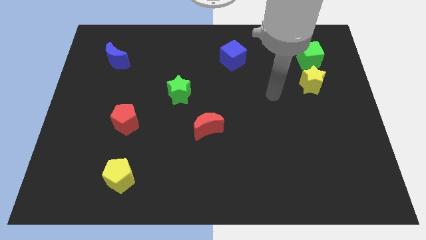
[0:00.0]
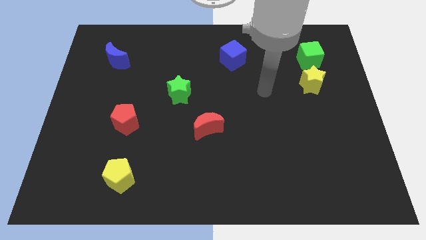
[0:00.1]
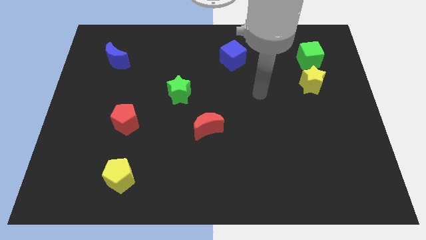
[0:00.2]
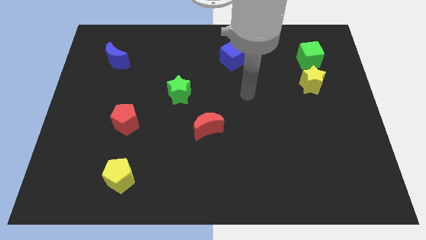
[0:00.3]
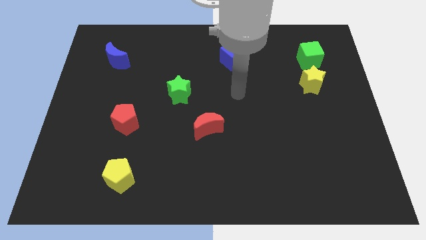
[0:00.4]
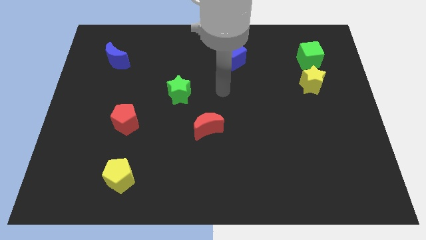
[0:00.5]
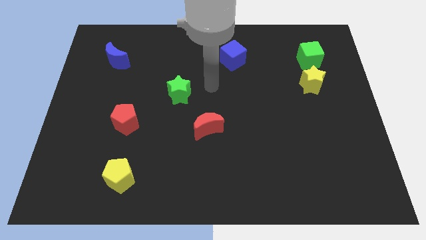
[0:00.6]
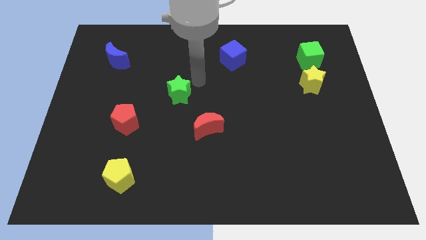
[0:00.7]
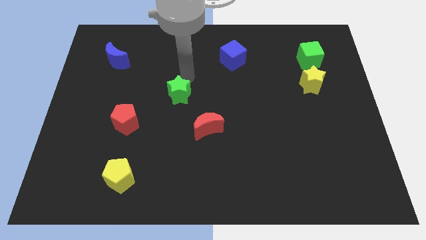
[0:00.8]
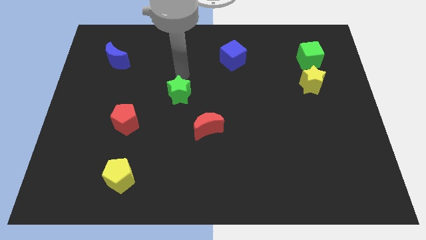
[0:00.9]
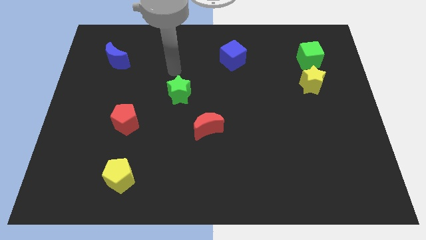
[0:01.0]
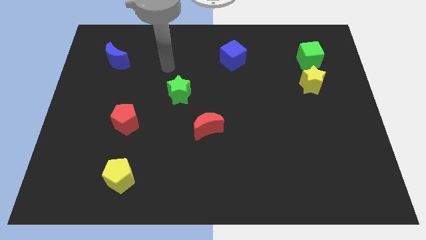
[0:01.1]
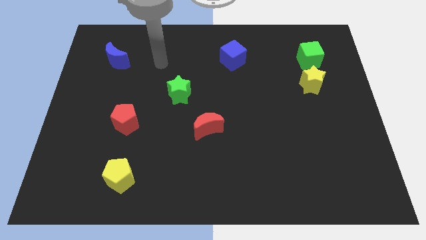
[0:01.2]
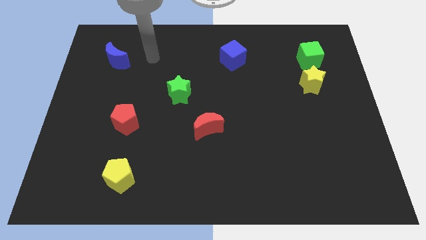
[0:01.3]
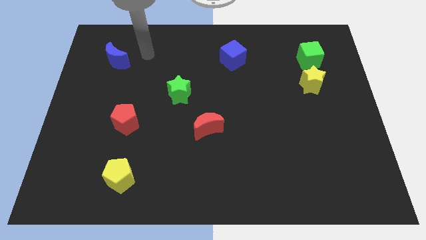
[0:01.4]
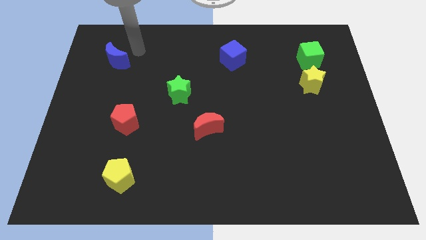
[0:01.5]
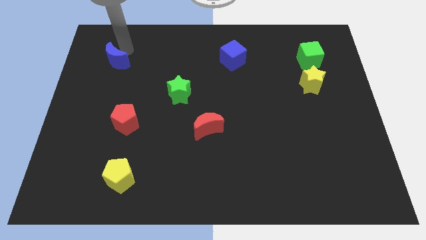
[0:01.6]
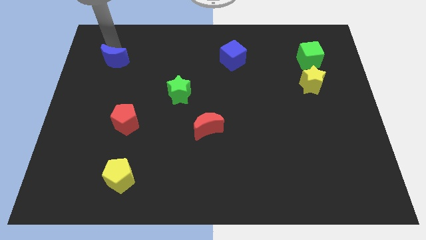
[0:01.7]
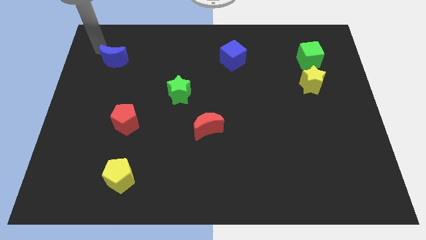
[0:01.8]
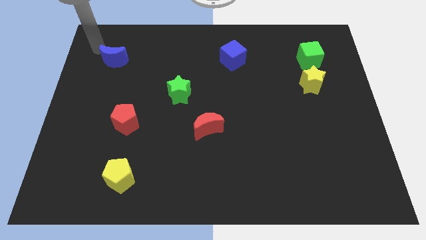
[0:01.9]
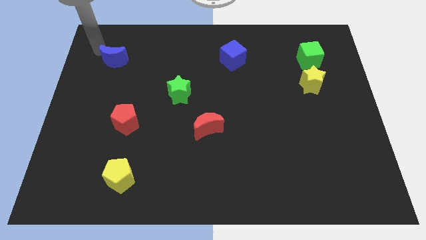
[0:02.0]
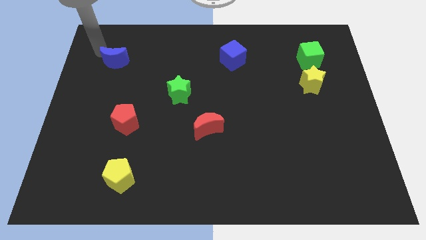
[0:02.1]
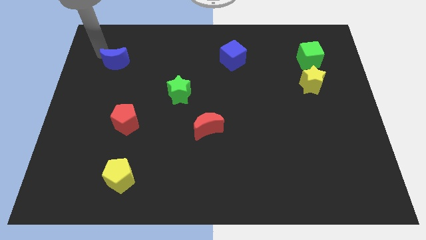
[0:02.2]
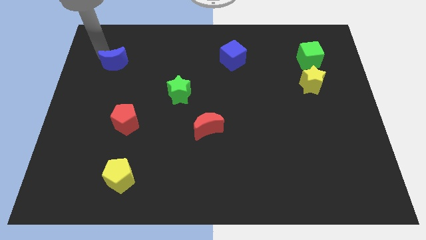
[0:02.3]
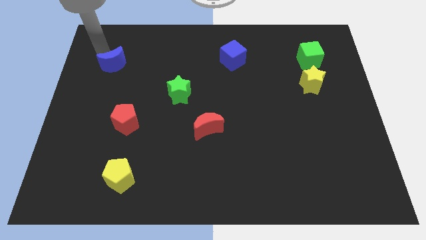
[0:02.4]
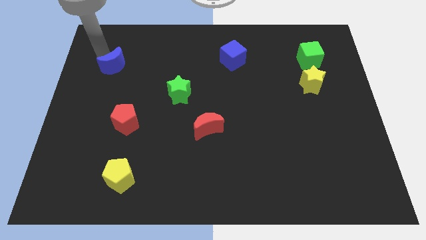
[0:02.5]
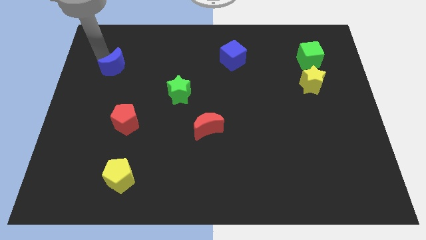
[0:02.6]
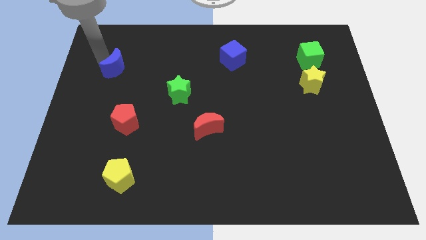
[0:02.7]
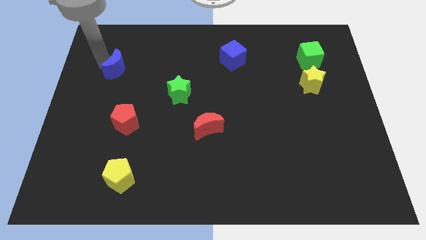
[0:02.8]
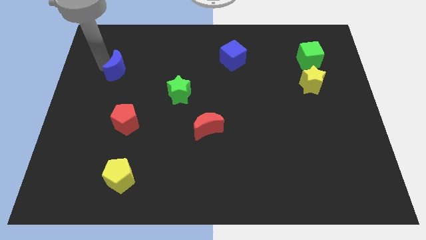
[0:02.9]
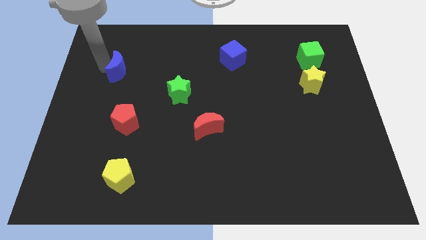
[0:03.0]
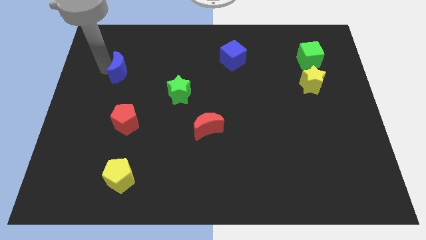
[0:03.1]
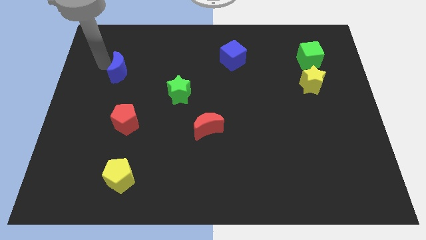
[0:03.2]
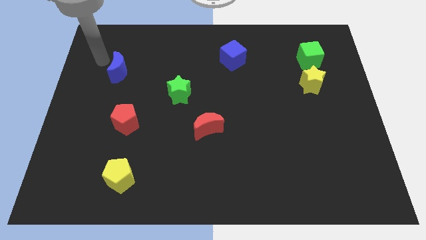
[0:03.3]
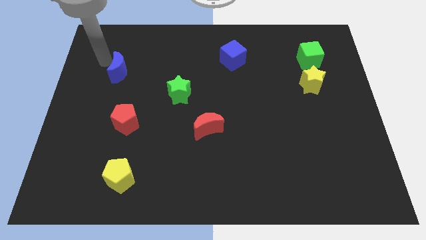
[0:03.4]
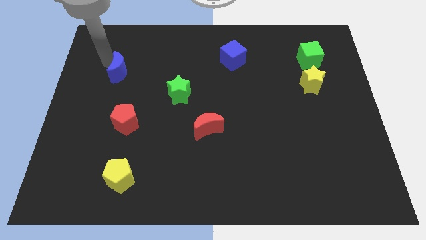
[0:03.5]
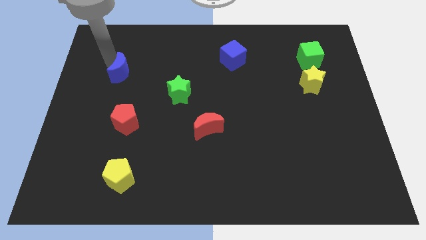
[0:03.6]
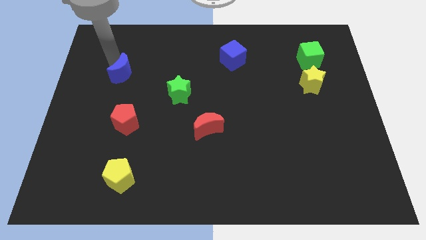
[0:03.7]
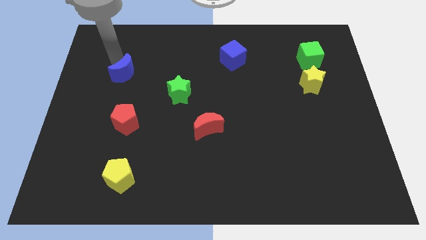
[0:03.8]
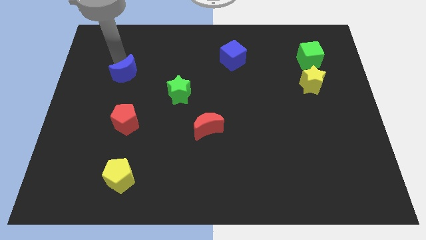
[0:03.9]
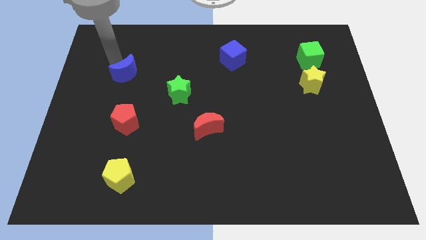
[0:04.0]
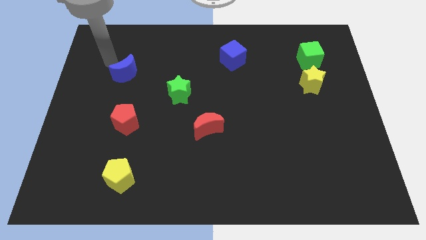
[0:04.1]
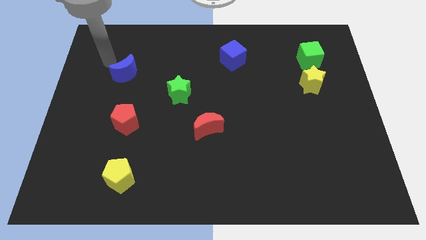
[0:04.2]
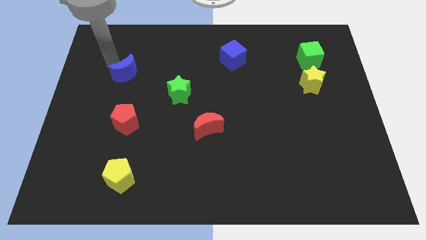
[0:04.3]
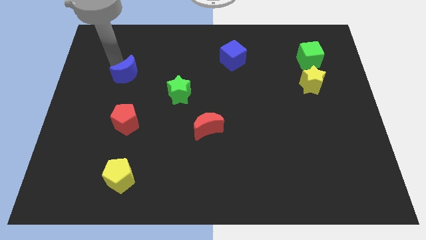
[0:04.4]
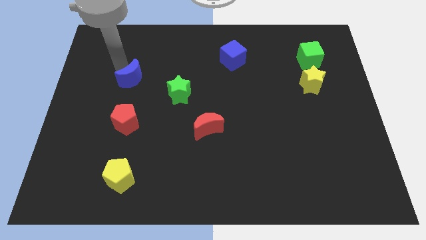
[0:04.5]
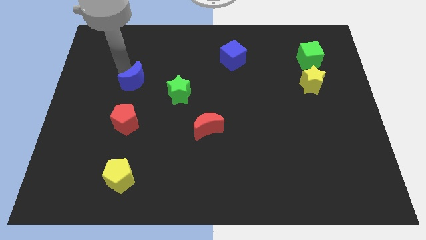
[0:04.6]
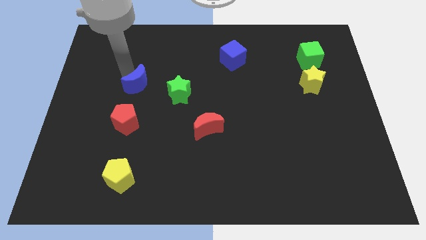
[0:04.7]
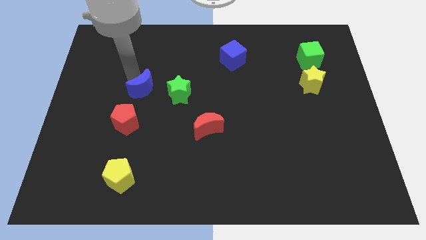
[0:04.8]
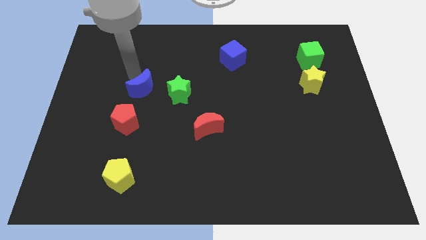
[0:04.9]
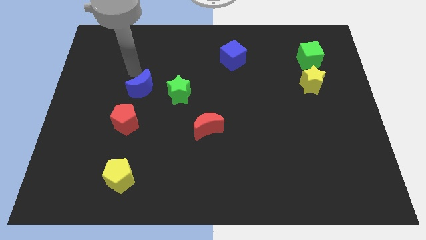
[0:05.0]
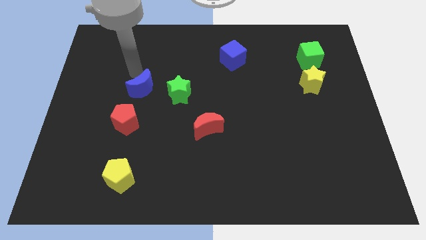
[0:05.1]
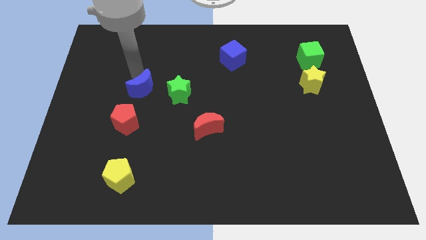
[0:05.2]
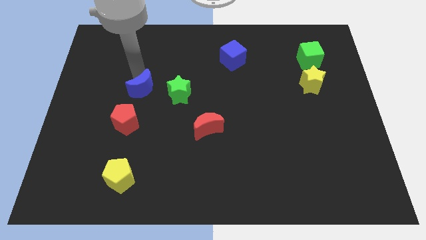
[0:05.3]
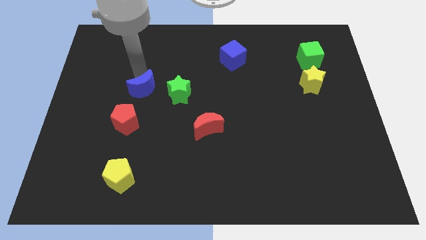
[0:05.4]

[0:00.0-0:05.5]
slide the blue moon to the top right side of the red pentagon

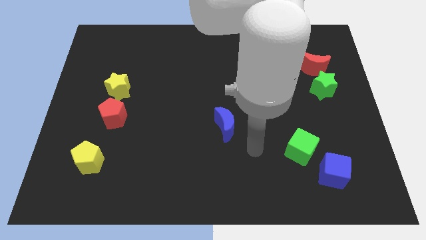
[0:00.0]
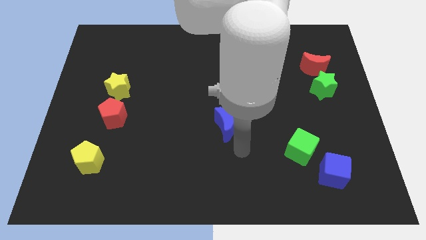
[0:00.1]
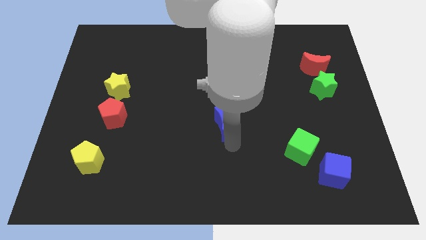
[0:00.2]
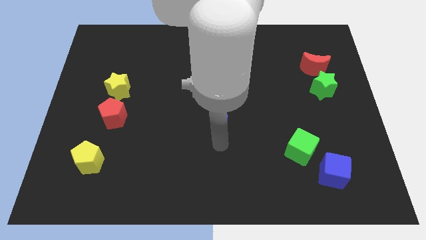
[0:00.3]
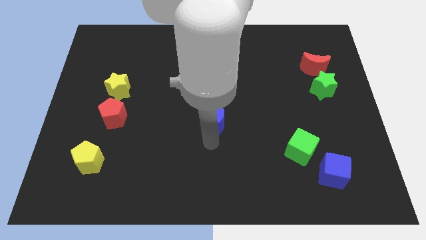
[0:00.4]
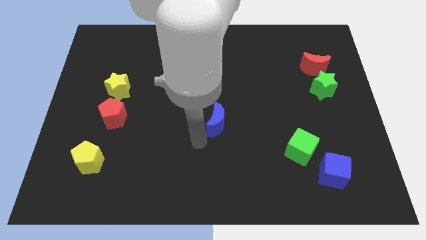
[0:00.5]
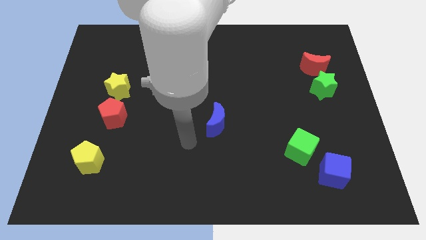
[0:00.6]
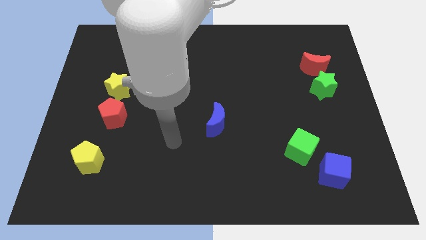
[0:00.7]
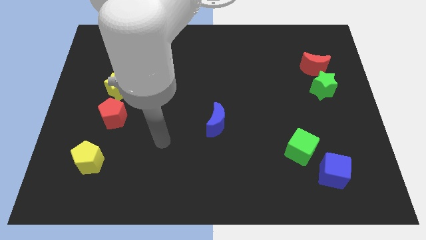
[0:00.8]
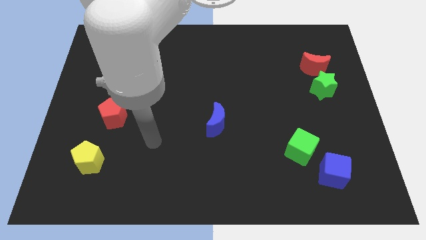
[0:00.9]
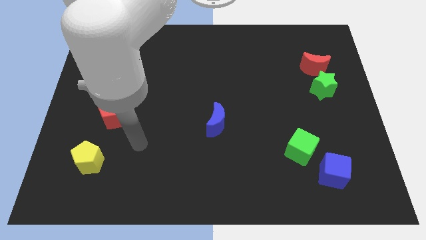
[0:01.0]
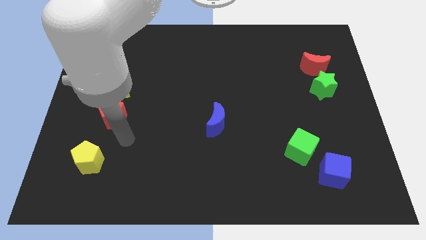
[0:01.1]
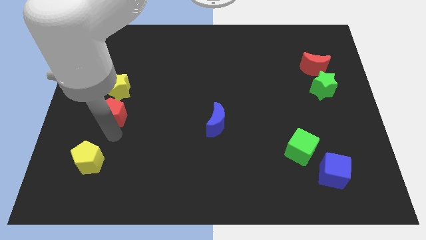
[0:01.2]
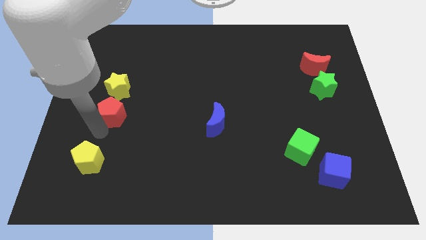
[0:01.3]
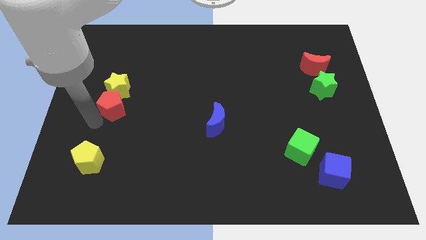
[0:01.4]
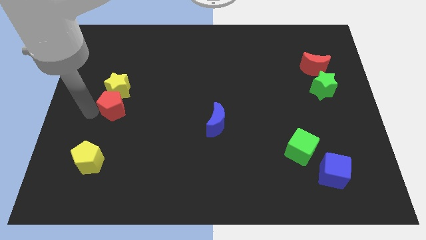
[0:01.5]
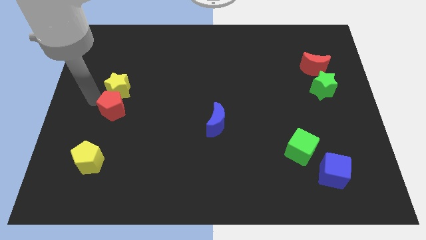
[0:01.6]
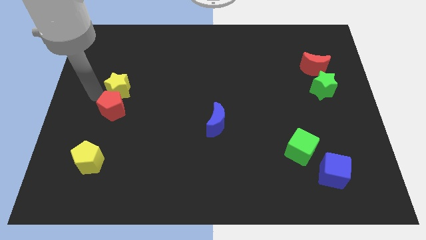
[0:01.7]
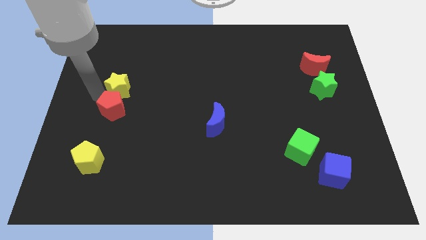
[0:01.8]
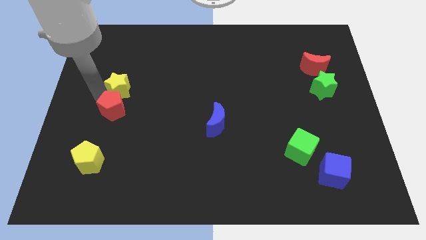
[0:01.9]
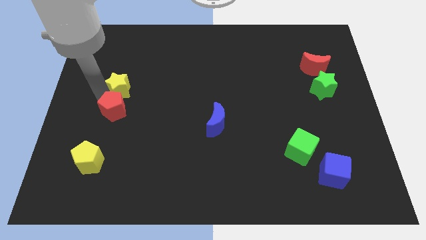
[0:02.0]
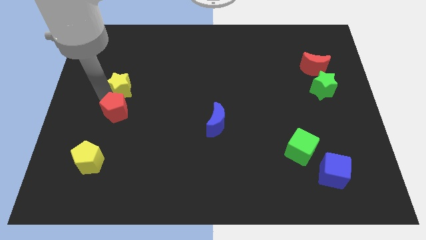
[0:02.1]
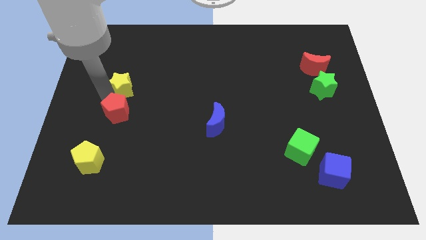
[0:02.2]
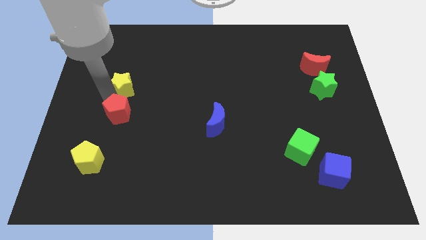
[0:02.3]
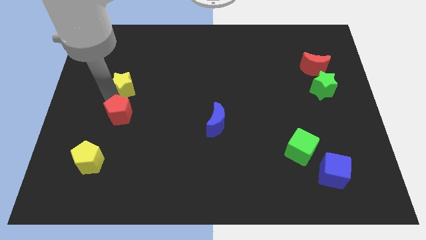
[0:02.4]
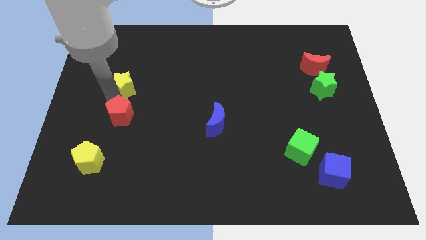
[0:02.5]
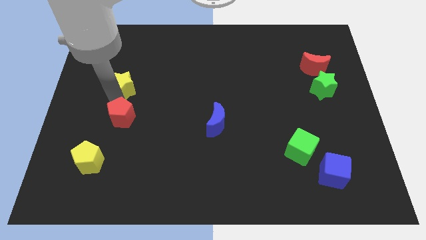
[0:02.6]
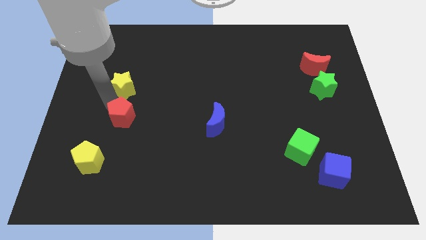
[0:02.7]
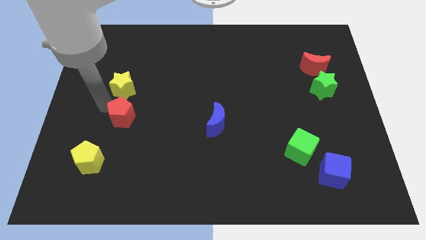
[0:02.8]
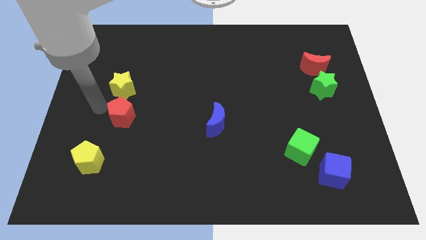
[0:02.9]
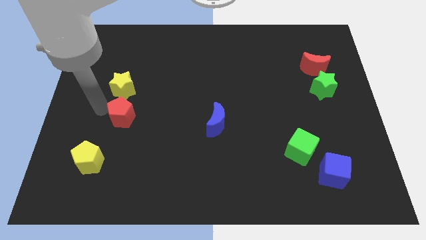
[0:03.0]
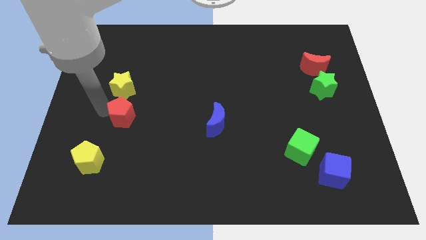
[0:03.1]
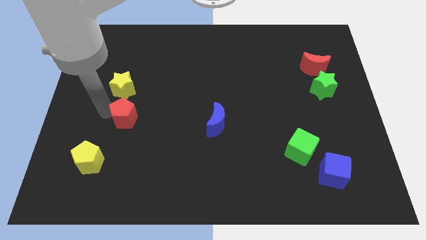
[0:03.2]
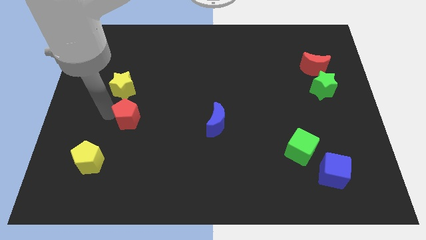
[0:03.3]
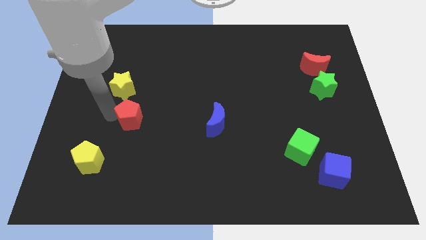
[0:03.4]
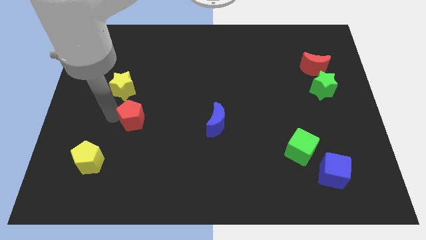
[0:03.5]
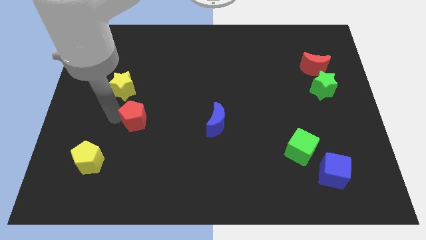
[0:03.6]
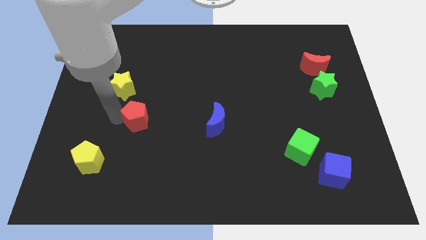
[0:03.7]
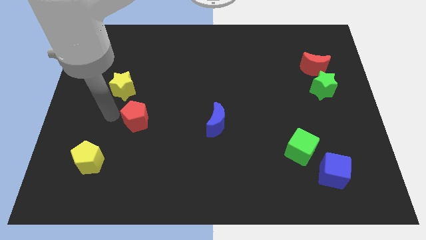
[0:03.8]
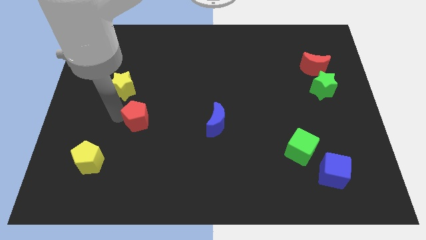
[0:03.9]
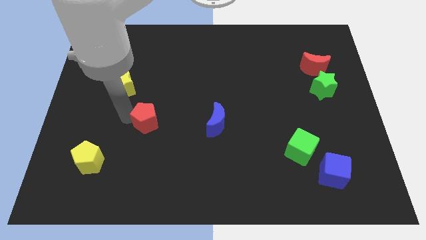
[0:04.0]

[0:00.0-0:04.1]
put the red pentagon to the left of the blue moon
